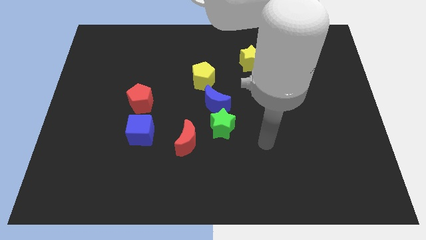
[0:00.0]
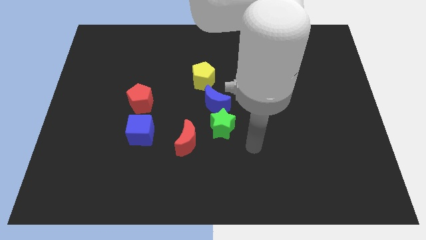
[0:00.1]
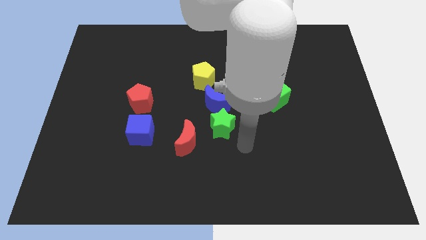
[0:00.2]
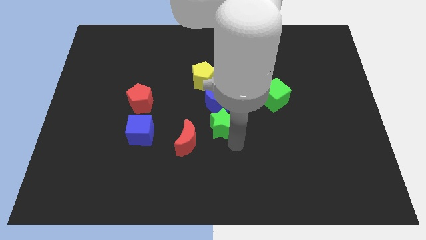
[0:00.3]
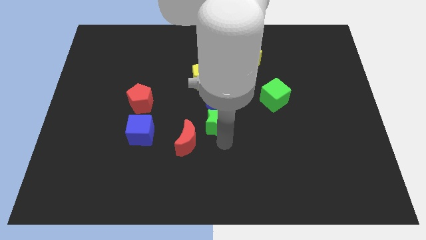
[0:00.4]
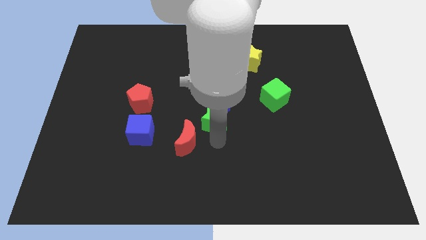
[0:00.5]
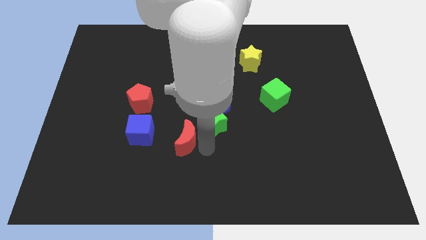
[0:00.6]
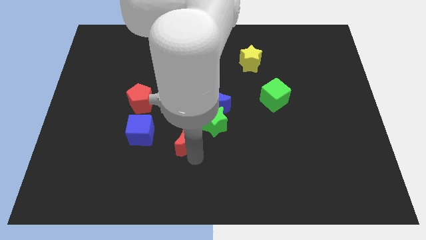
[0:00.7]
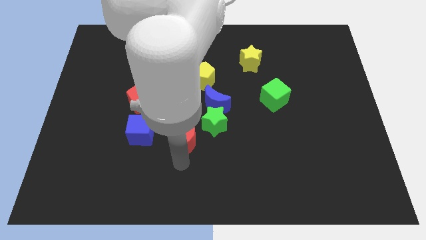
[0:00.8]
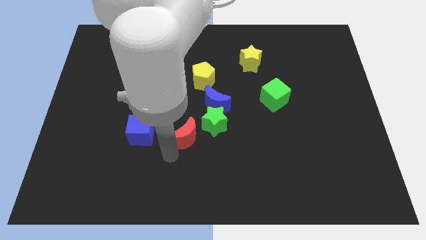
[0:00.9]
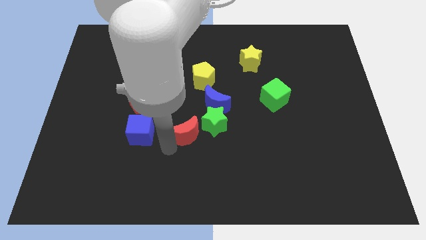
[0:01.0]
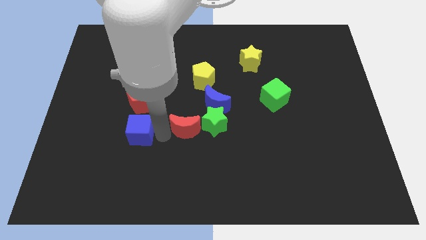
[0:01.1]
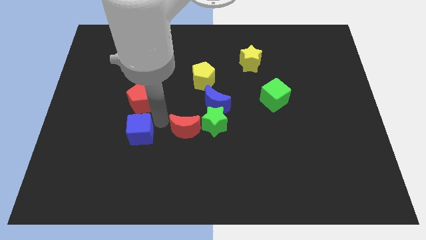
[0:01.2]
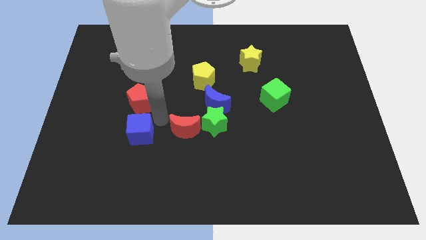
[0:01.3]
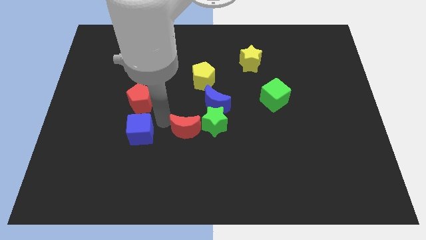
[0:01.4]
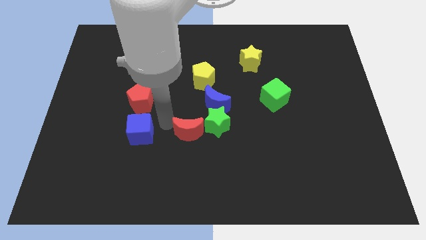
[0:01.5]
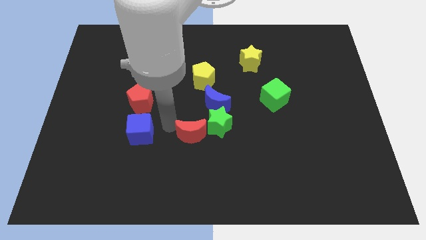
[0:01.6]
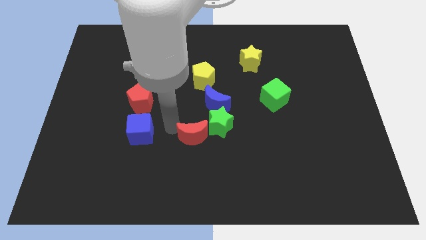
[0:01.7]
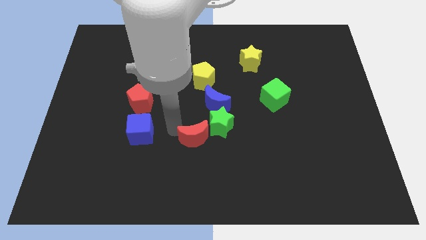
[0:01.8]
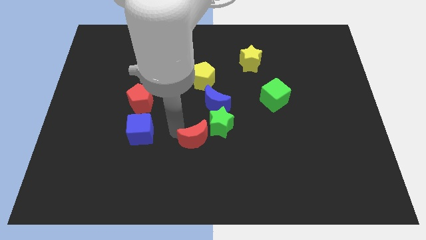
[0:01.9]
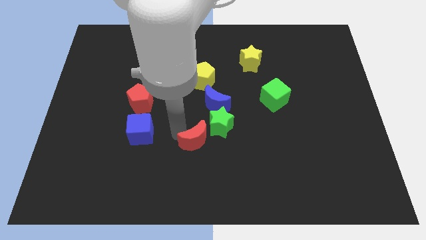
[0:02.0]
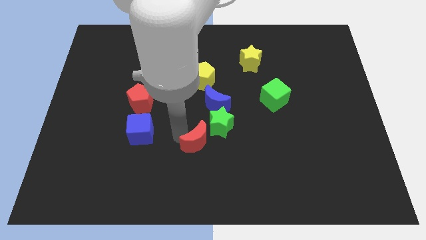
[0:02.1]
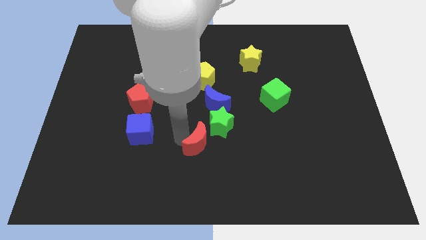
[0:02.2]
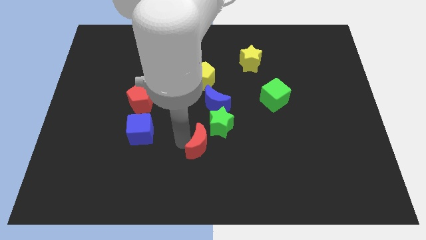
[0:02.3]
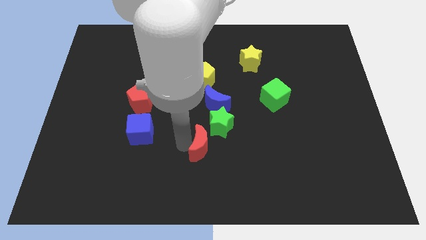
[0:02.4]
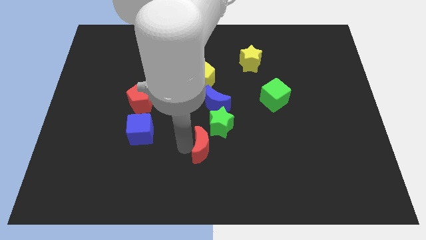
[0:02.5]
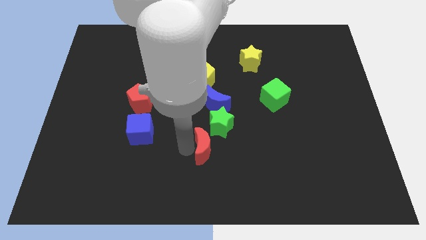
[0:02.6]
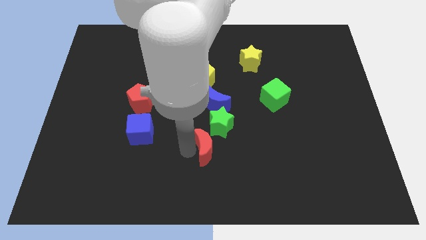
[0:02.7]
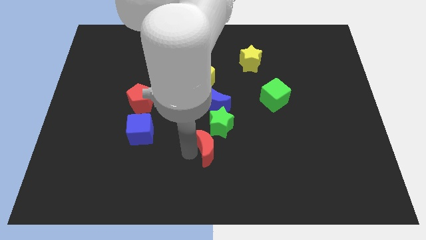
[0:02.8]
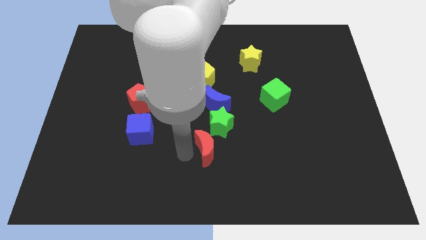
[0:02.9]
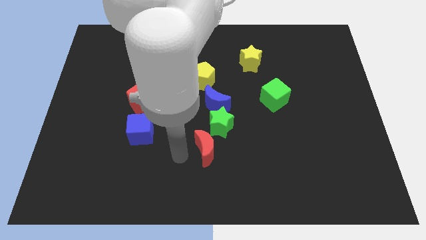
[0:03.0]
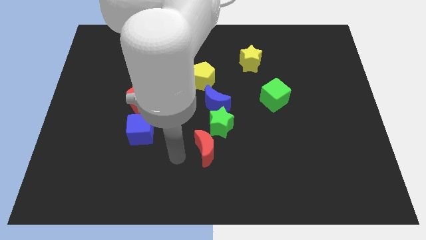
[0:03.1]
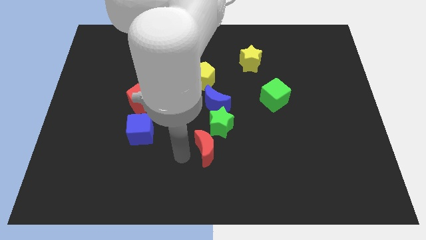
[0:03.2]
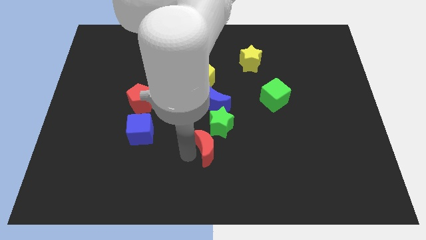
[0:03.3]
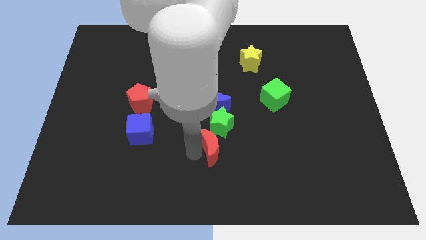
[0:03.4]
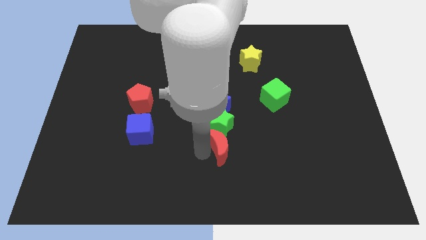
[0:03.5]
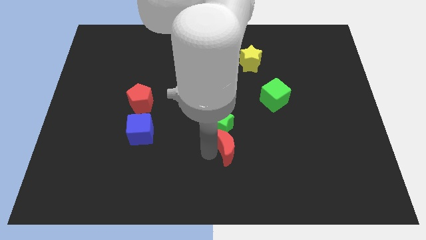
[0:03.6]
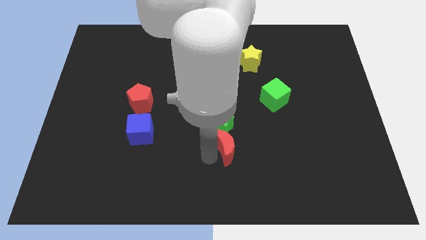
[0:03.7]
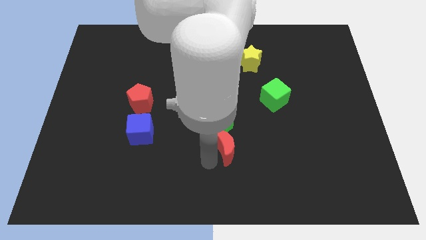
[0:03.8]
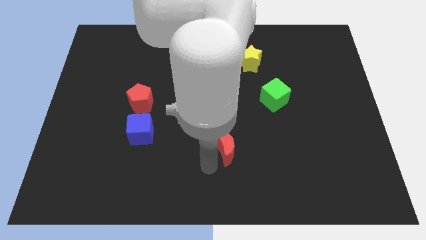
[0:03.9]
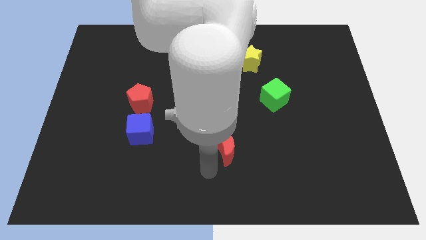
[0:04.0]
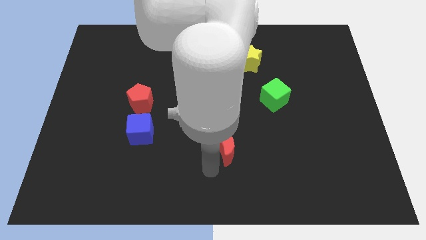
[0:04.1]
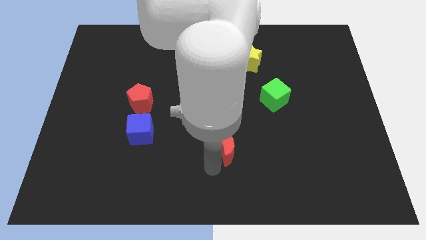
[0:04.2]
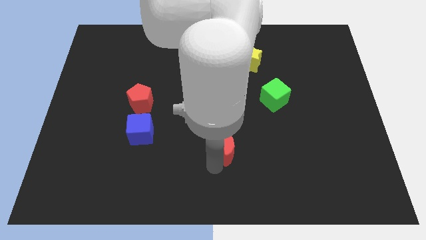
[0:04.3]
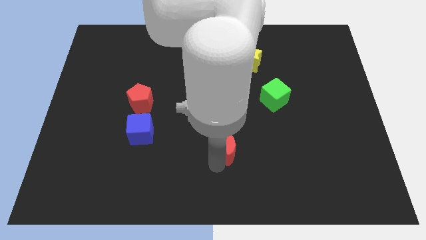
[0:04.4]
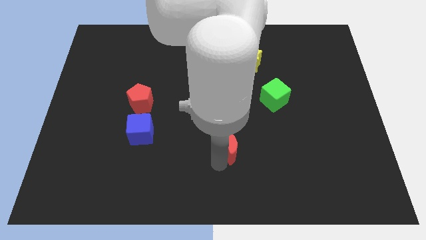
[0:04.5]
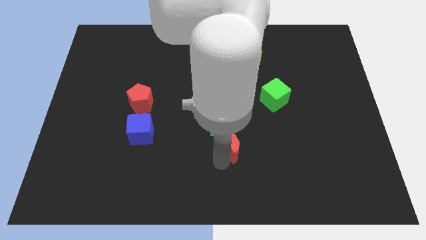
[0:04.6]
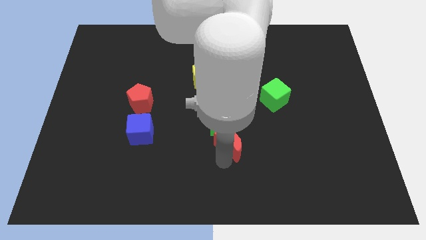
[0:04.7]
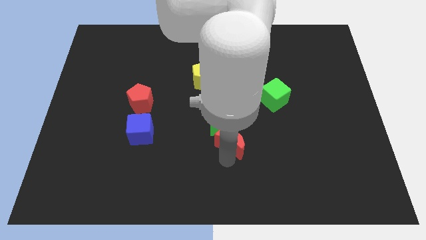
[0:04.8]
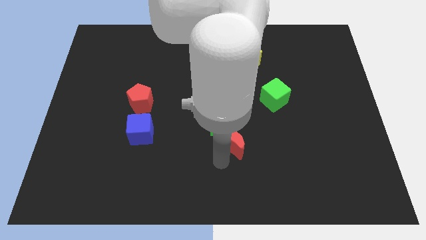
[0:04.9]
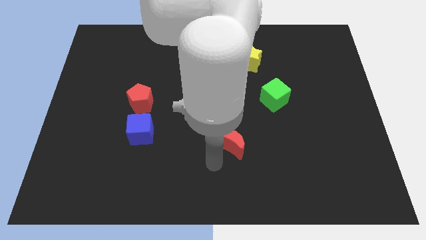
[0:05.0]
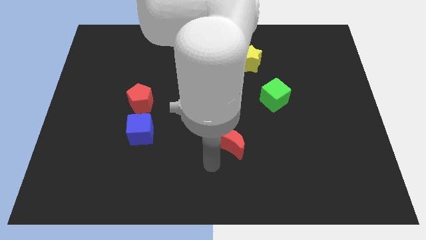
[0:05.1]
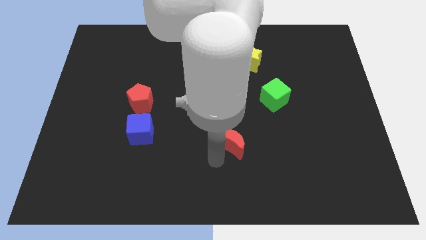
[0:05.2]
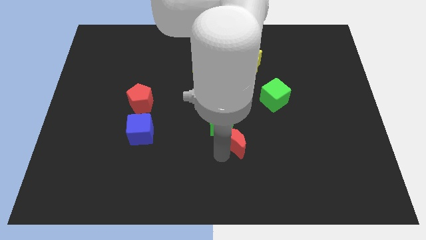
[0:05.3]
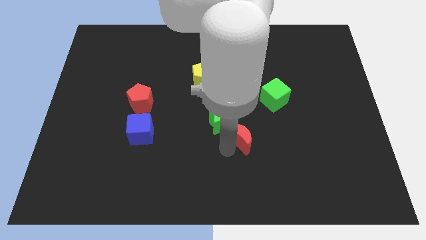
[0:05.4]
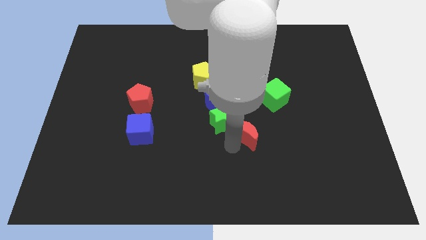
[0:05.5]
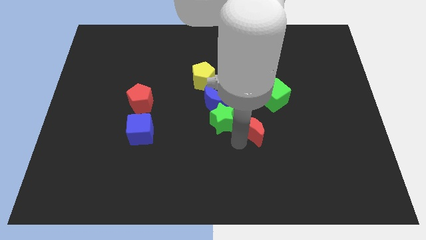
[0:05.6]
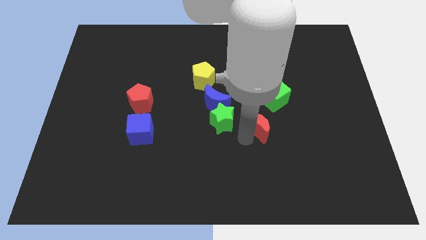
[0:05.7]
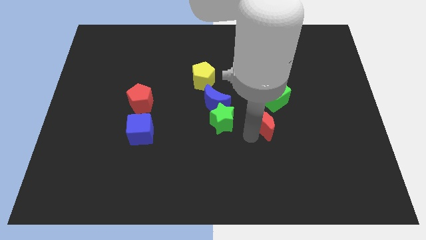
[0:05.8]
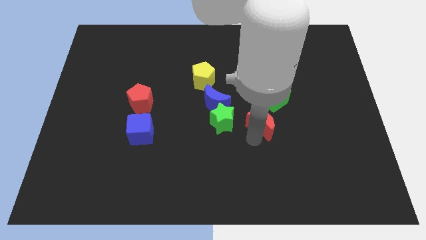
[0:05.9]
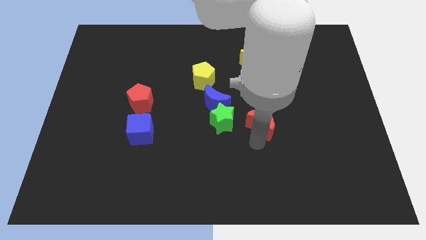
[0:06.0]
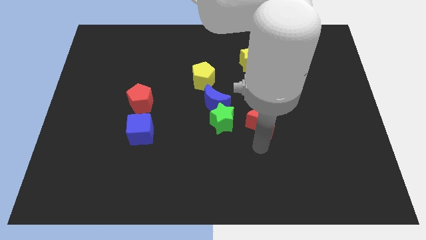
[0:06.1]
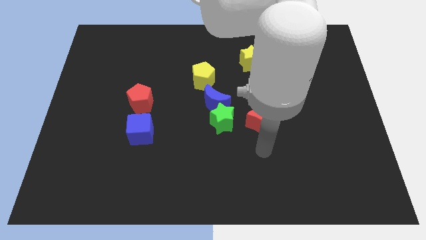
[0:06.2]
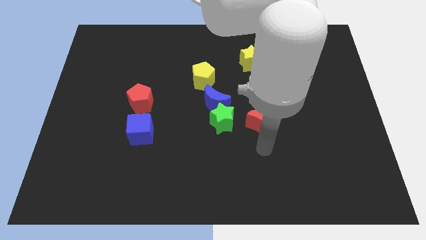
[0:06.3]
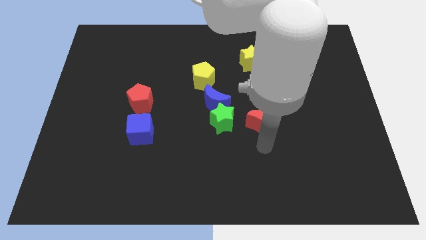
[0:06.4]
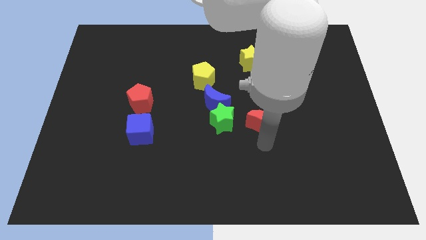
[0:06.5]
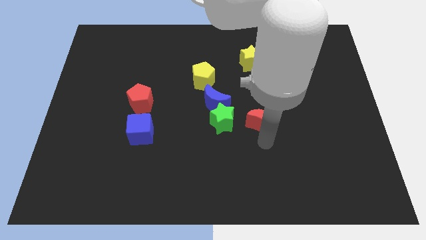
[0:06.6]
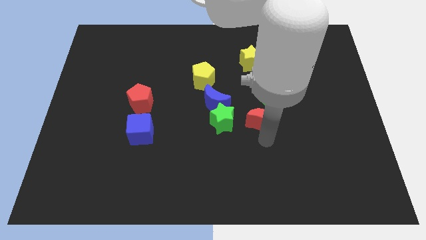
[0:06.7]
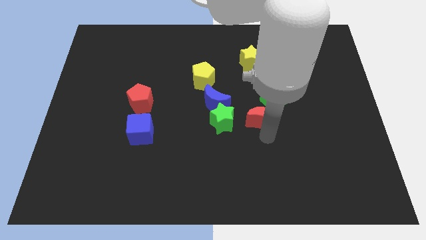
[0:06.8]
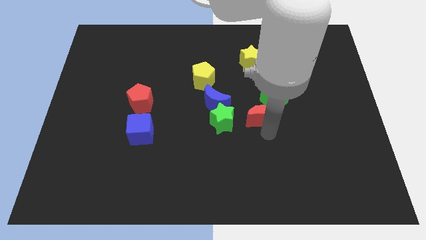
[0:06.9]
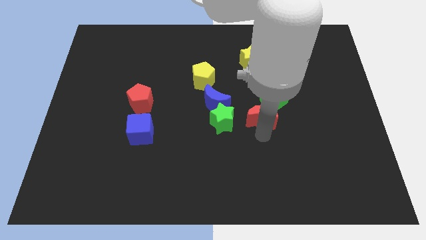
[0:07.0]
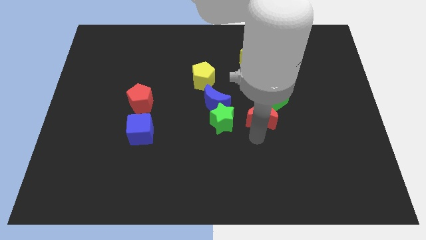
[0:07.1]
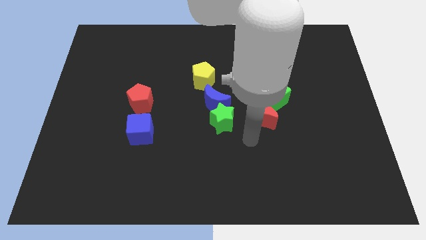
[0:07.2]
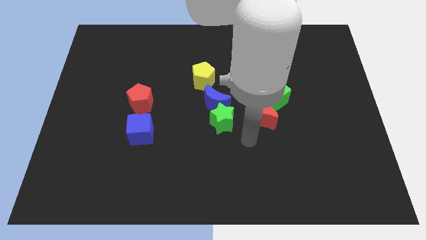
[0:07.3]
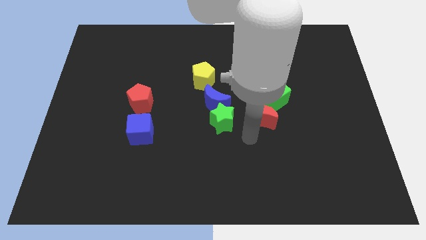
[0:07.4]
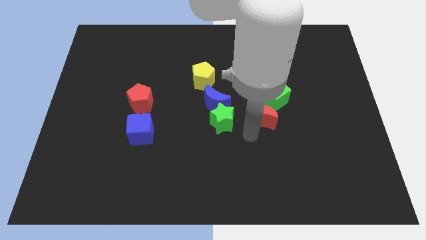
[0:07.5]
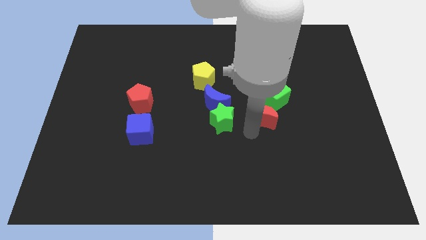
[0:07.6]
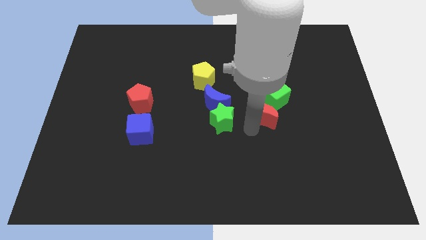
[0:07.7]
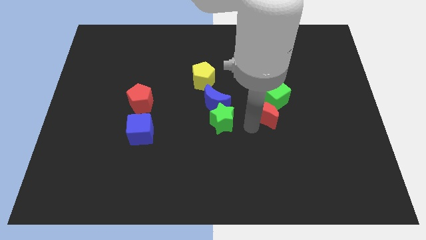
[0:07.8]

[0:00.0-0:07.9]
move the red moon close to the green cube

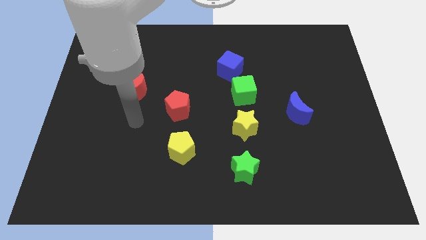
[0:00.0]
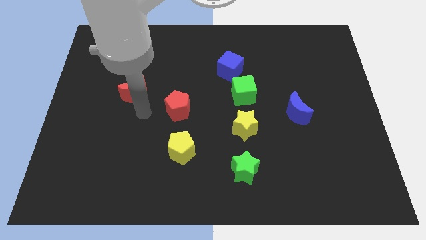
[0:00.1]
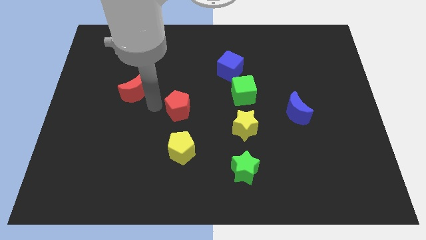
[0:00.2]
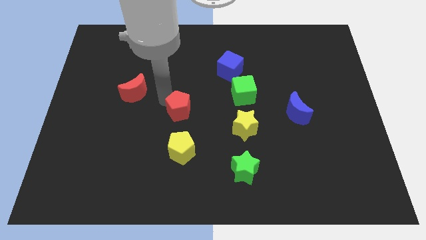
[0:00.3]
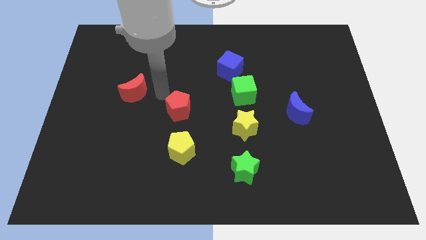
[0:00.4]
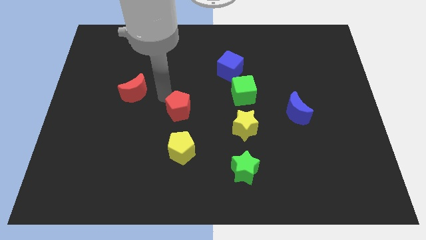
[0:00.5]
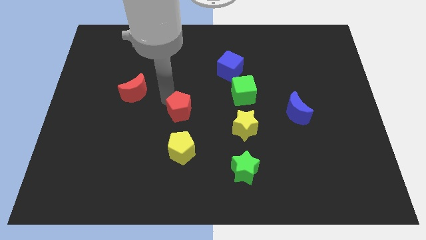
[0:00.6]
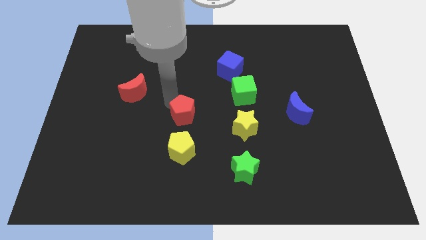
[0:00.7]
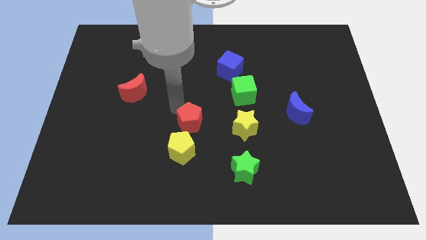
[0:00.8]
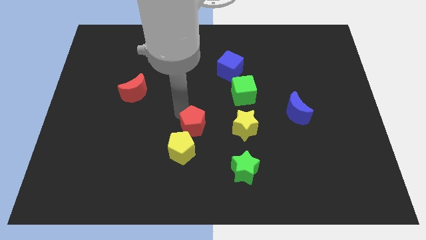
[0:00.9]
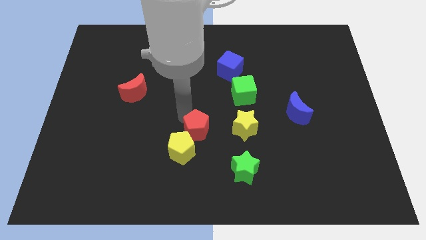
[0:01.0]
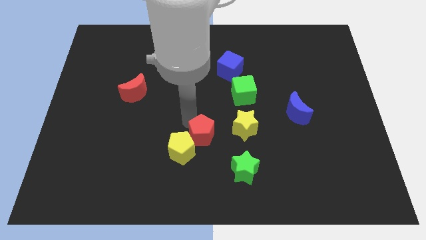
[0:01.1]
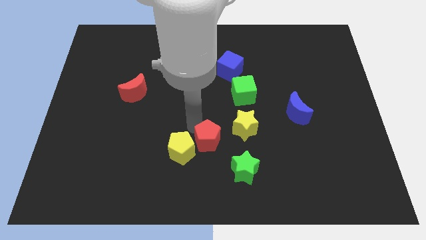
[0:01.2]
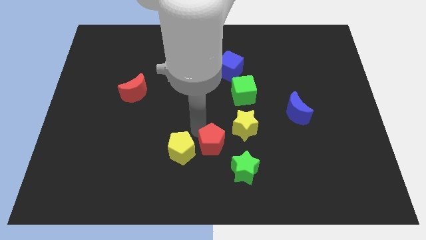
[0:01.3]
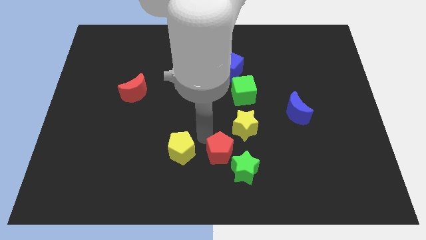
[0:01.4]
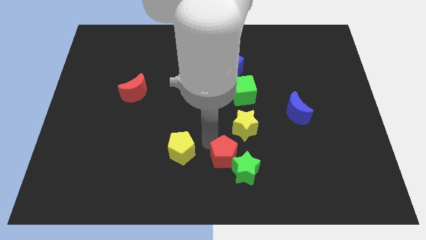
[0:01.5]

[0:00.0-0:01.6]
move the red pentagon towards the green star
